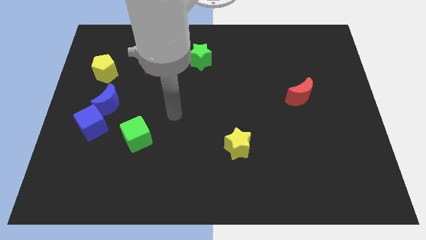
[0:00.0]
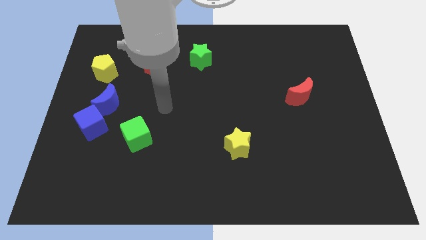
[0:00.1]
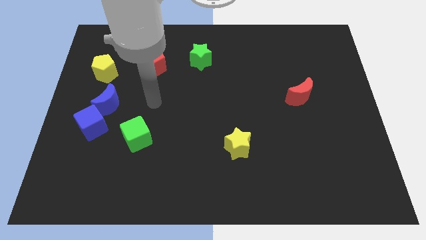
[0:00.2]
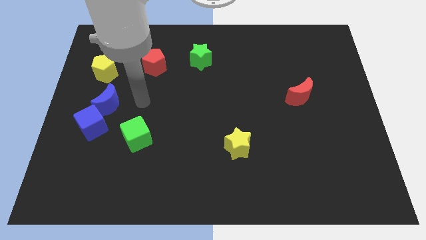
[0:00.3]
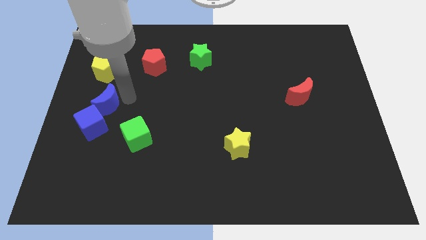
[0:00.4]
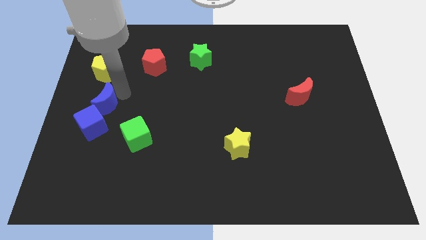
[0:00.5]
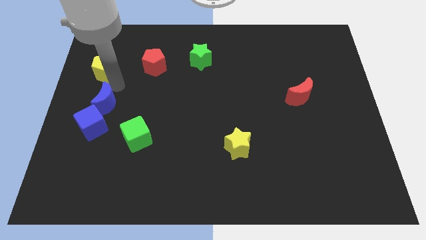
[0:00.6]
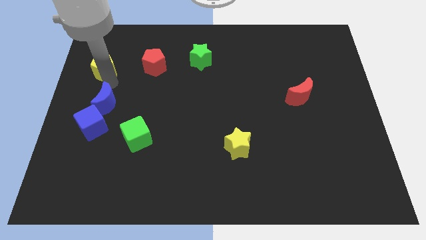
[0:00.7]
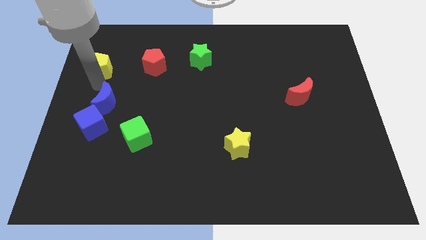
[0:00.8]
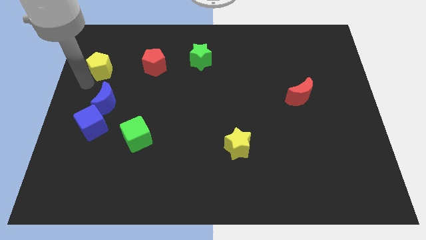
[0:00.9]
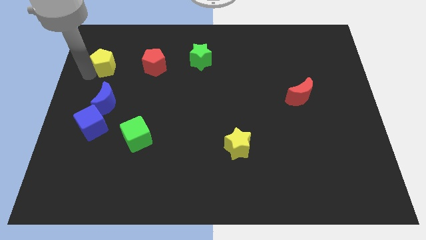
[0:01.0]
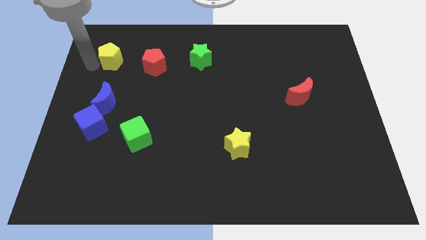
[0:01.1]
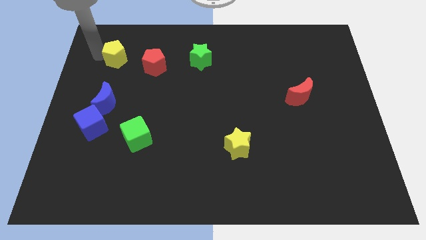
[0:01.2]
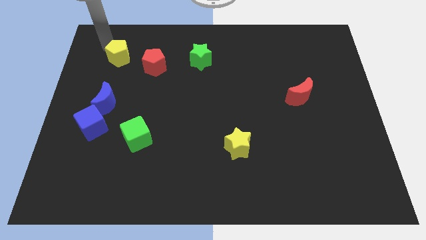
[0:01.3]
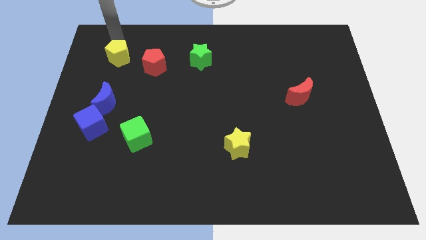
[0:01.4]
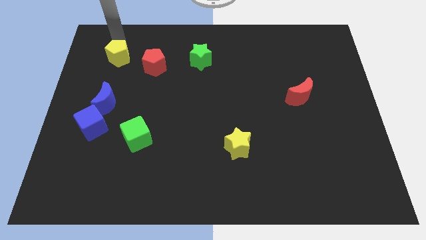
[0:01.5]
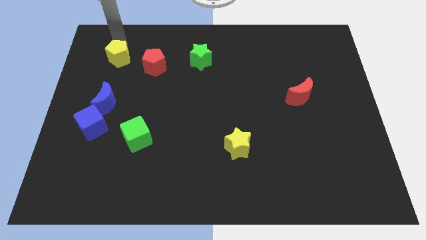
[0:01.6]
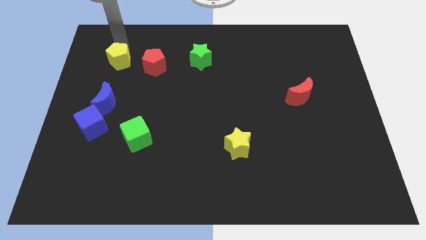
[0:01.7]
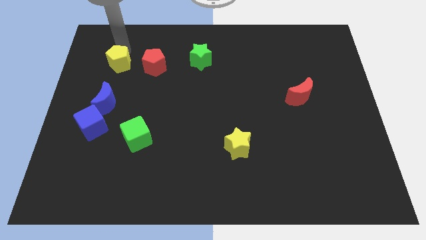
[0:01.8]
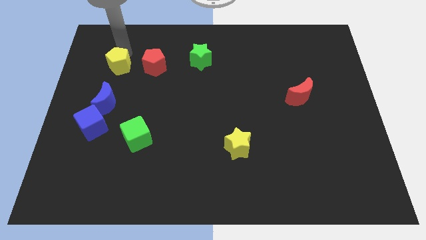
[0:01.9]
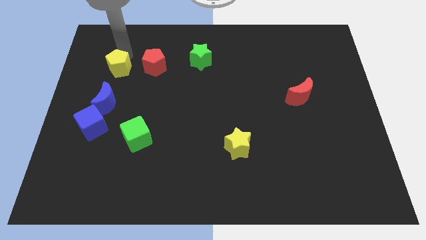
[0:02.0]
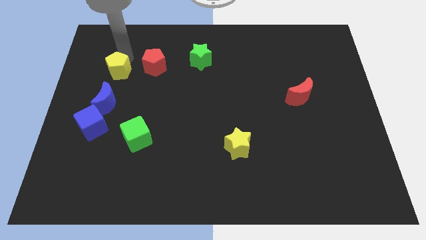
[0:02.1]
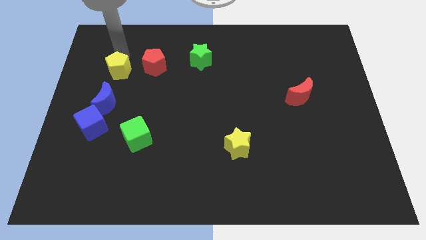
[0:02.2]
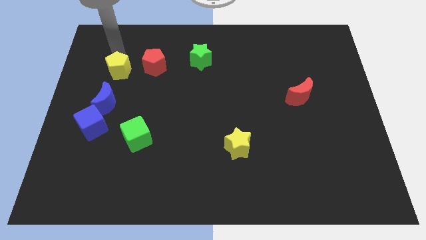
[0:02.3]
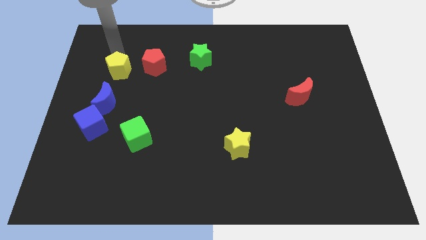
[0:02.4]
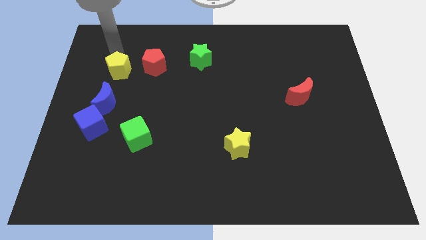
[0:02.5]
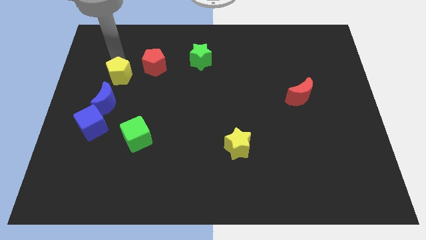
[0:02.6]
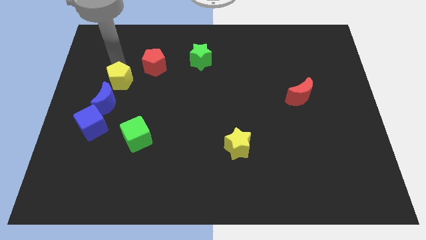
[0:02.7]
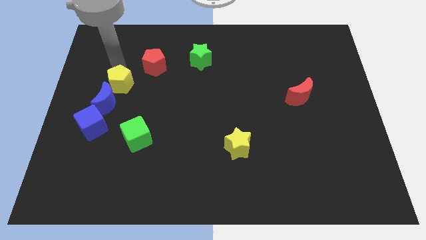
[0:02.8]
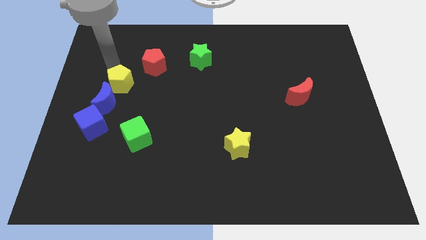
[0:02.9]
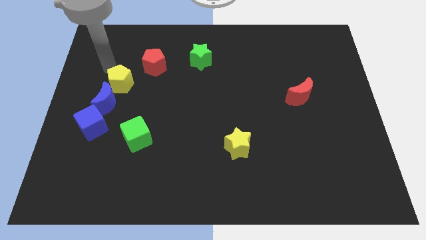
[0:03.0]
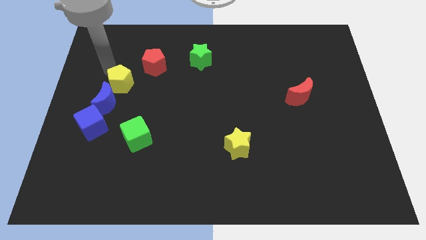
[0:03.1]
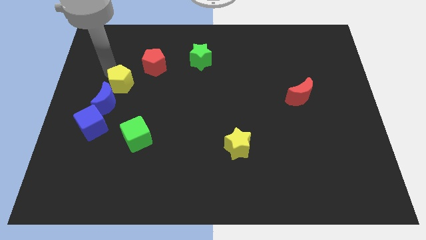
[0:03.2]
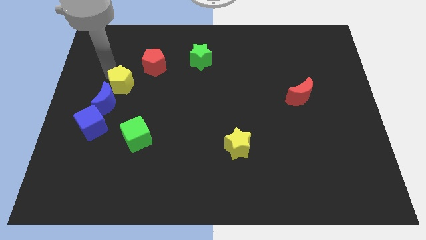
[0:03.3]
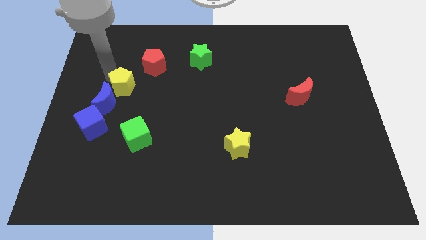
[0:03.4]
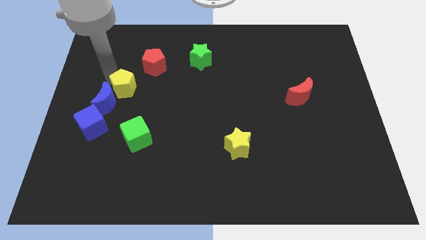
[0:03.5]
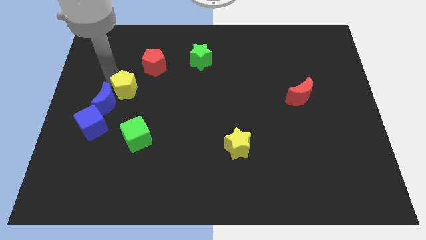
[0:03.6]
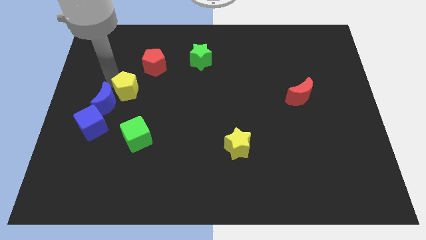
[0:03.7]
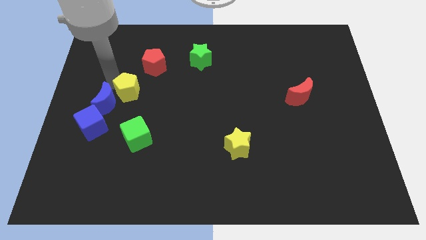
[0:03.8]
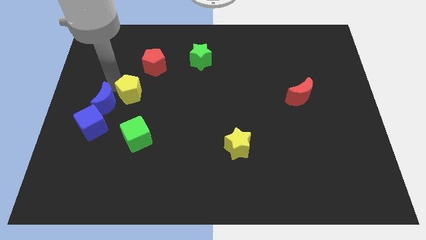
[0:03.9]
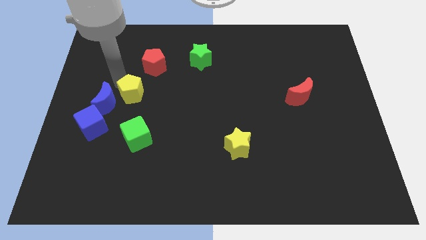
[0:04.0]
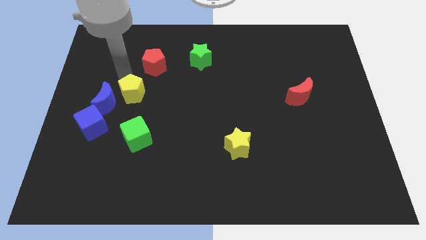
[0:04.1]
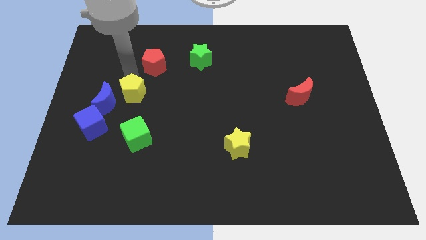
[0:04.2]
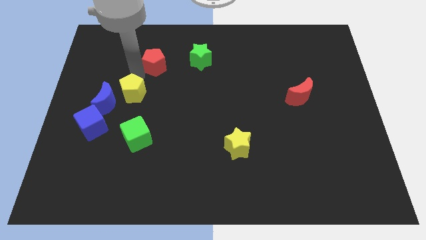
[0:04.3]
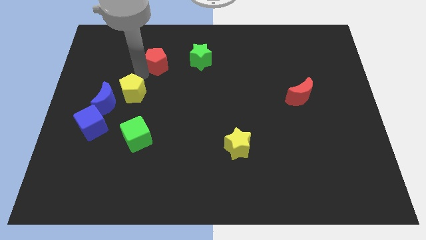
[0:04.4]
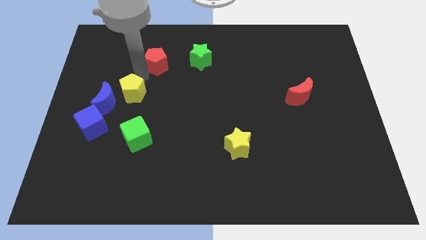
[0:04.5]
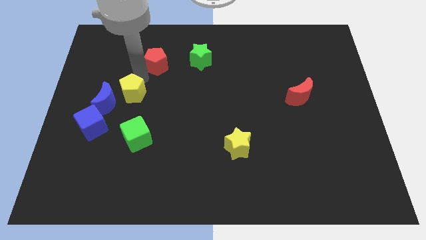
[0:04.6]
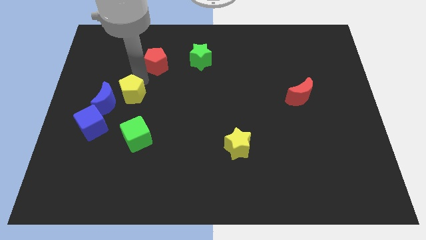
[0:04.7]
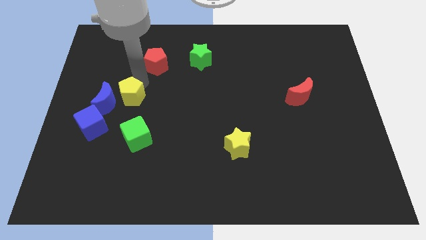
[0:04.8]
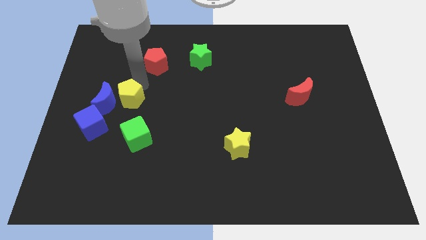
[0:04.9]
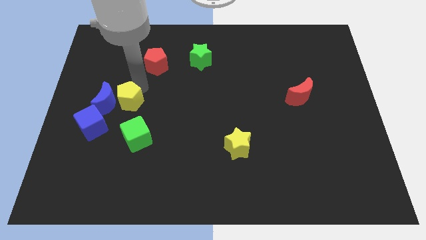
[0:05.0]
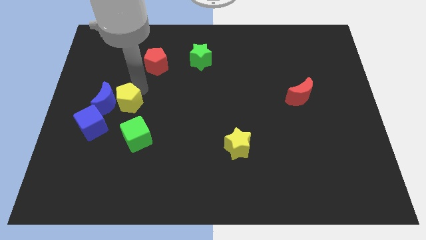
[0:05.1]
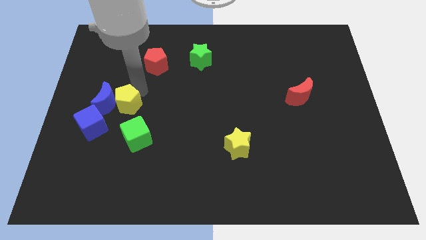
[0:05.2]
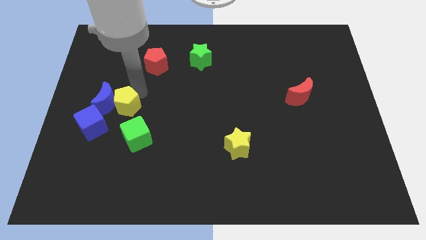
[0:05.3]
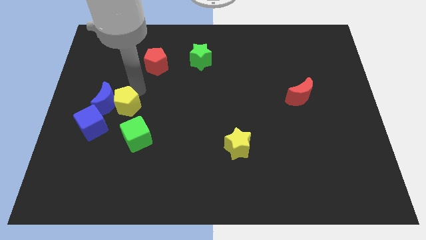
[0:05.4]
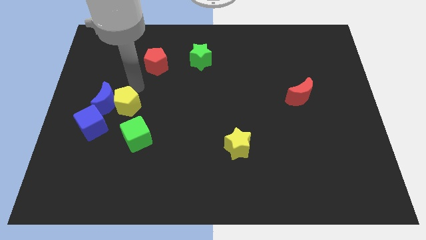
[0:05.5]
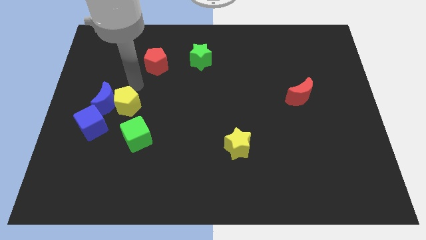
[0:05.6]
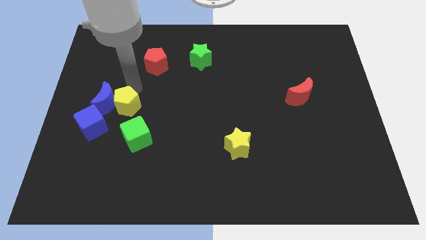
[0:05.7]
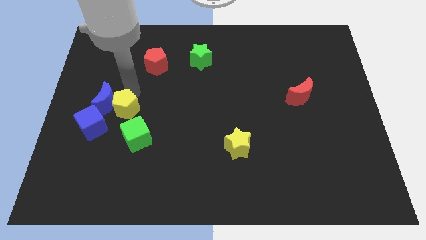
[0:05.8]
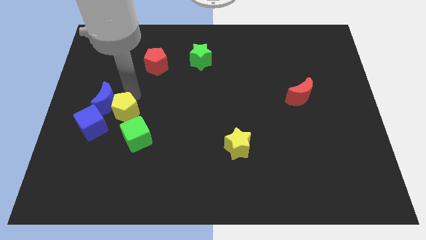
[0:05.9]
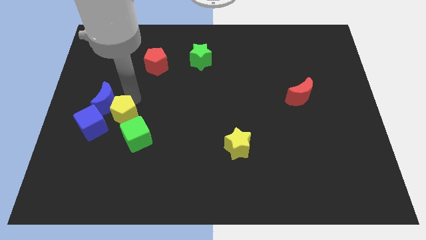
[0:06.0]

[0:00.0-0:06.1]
put the yellow pentagon below the blue moon
